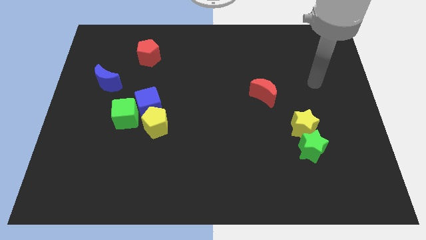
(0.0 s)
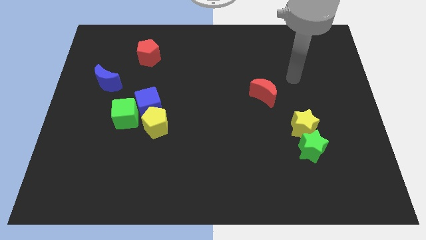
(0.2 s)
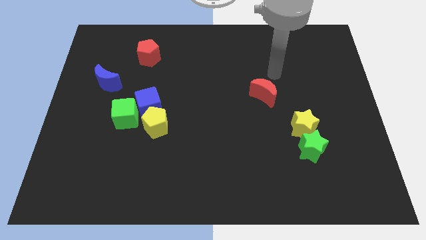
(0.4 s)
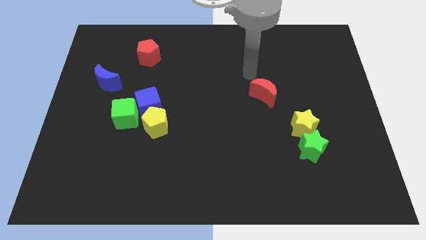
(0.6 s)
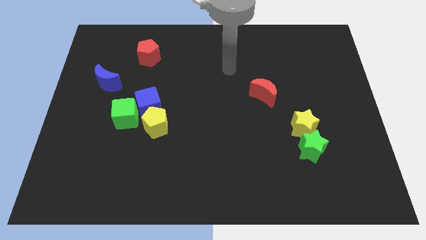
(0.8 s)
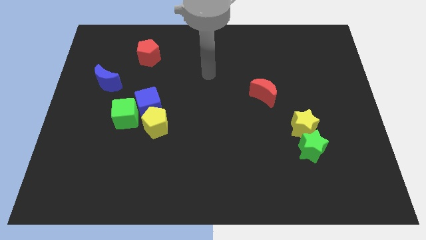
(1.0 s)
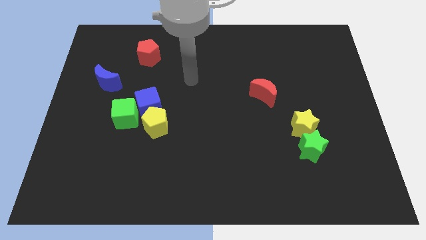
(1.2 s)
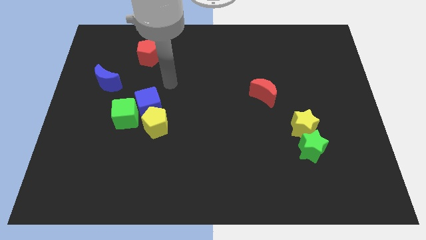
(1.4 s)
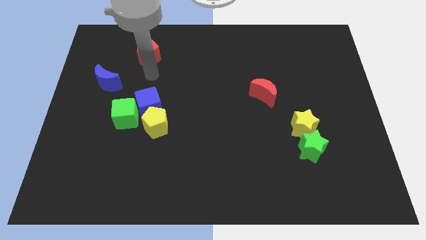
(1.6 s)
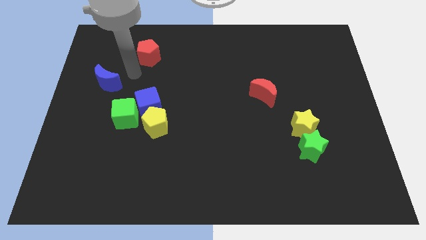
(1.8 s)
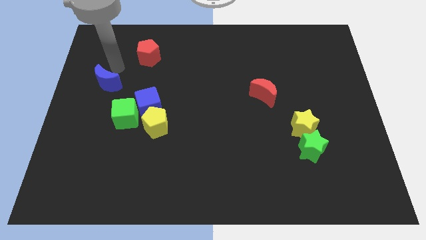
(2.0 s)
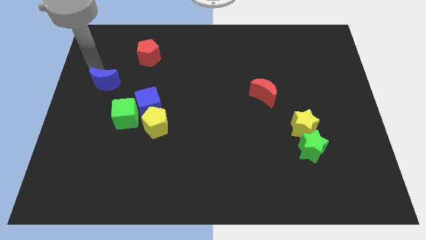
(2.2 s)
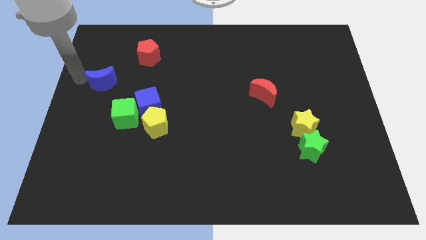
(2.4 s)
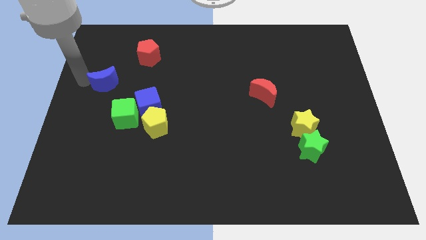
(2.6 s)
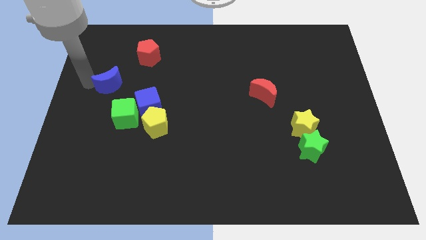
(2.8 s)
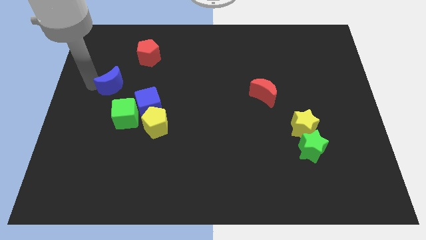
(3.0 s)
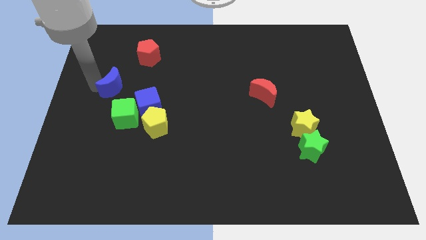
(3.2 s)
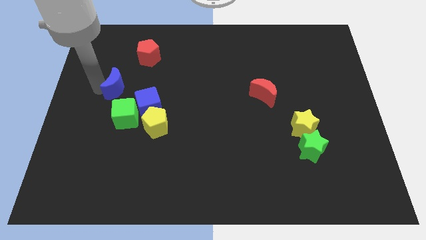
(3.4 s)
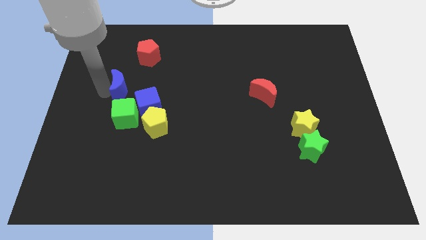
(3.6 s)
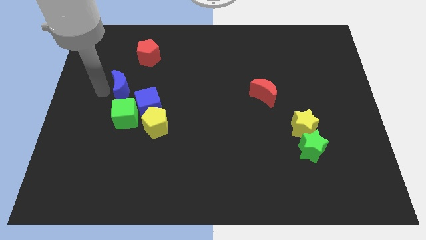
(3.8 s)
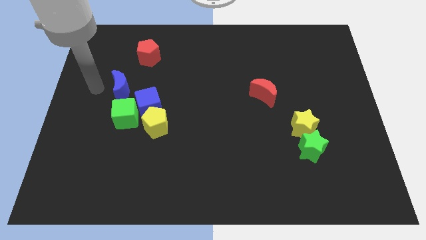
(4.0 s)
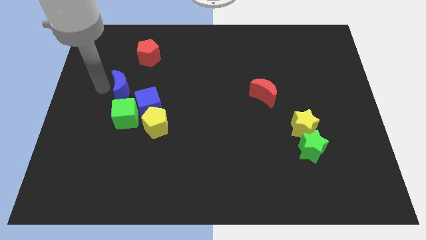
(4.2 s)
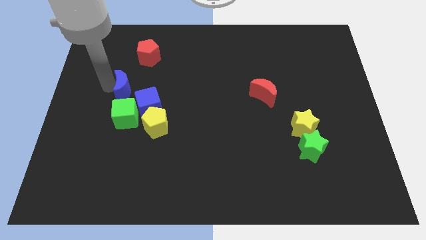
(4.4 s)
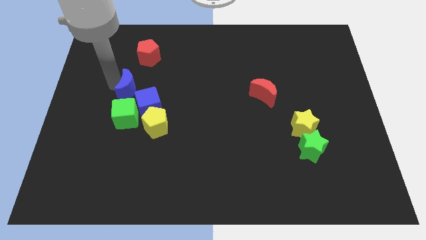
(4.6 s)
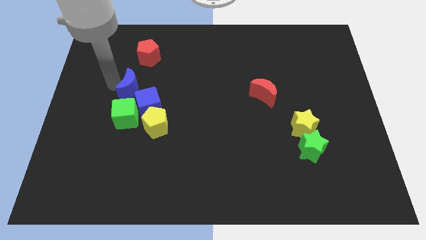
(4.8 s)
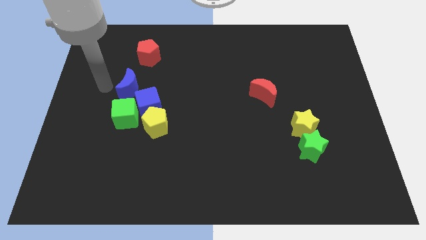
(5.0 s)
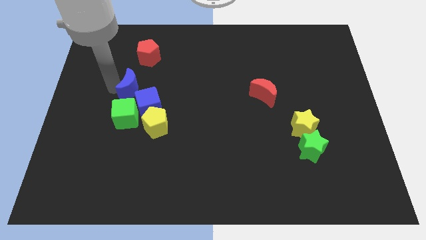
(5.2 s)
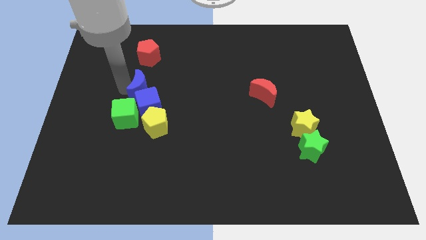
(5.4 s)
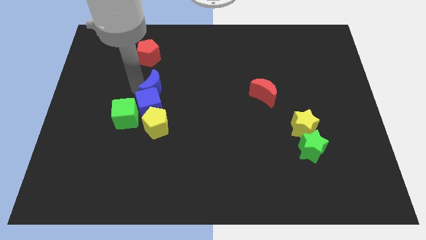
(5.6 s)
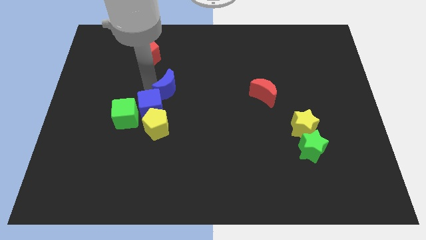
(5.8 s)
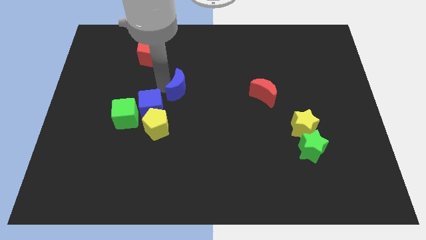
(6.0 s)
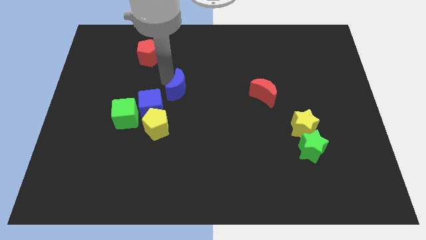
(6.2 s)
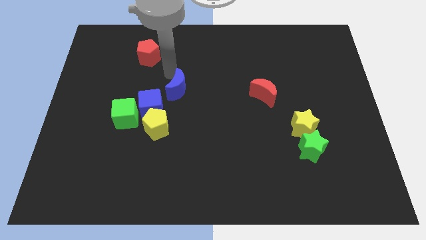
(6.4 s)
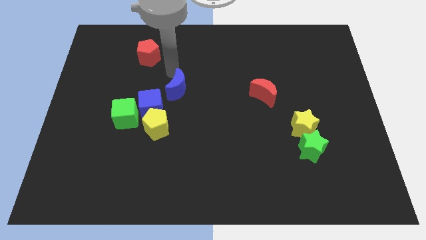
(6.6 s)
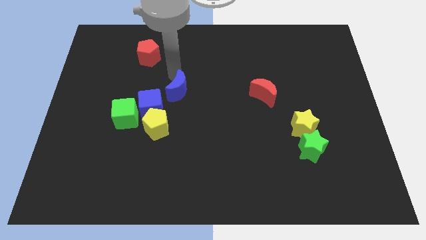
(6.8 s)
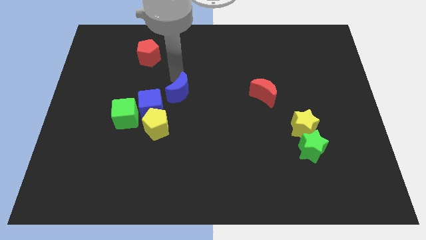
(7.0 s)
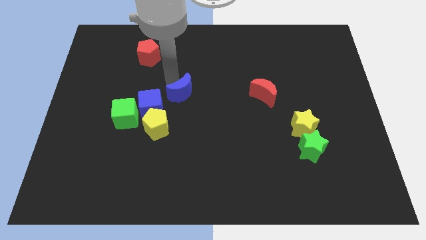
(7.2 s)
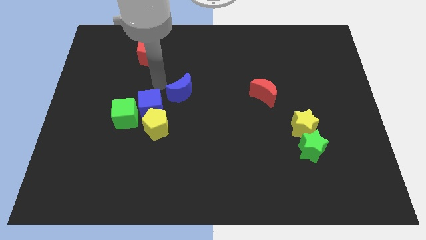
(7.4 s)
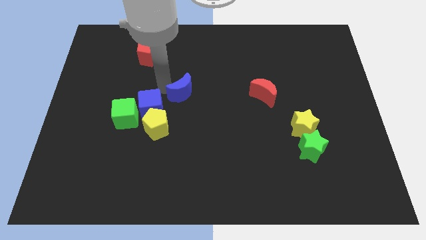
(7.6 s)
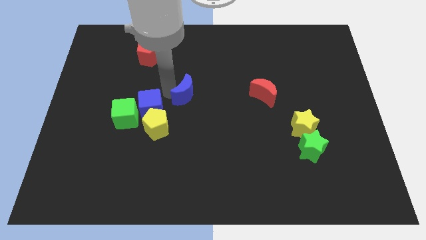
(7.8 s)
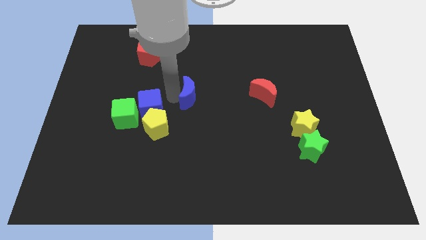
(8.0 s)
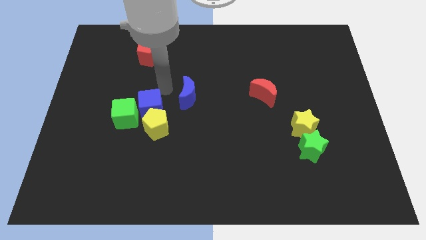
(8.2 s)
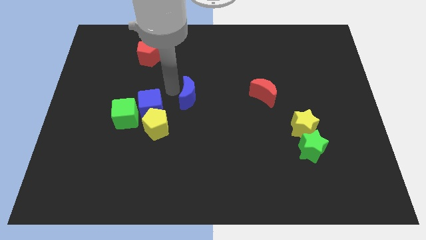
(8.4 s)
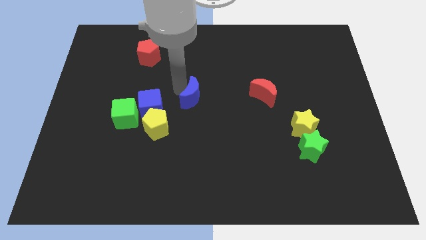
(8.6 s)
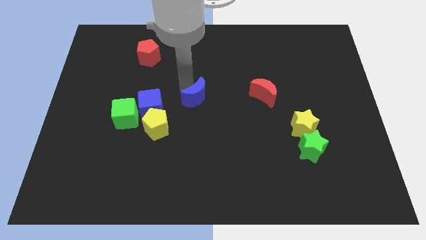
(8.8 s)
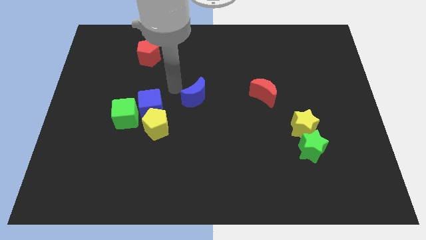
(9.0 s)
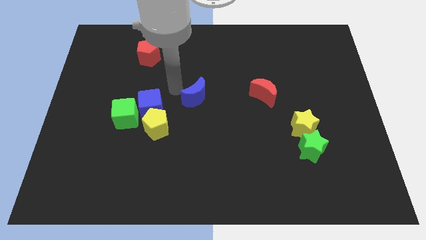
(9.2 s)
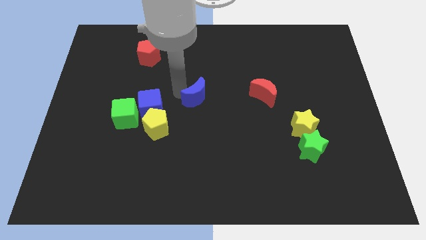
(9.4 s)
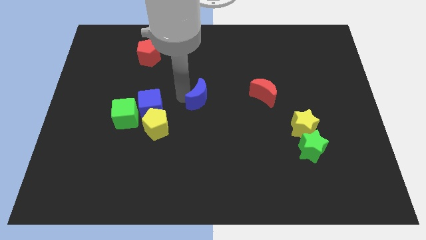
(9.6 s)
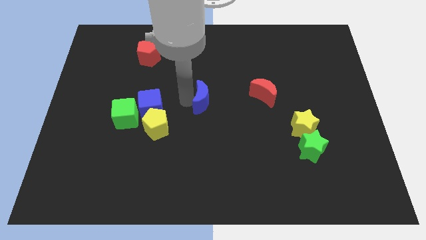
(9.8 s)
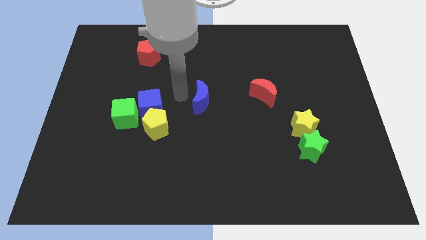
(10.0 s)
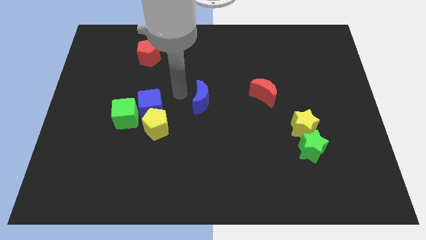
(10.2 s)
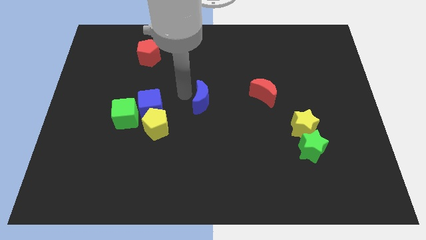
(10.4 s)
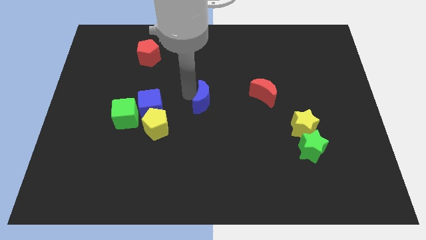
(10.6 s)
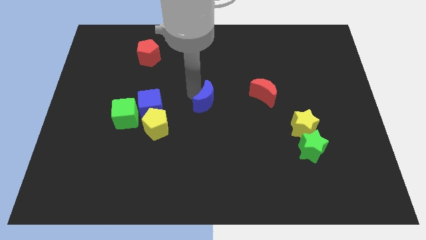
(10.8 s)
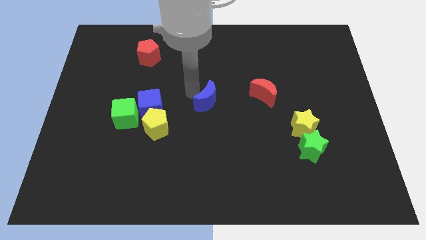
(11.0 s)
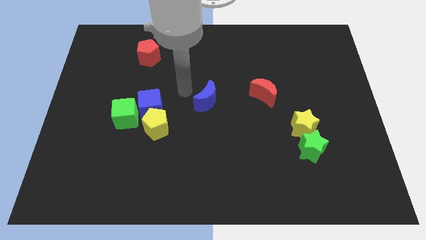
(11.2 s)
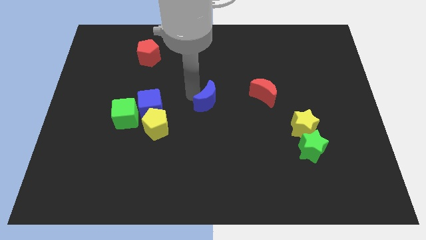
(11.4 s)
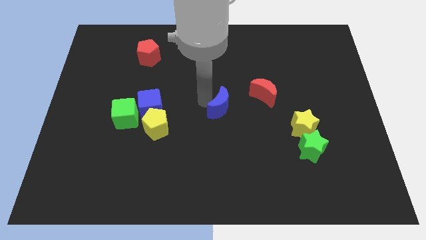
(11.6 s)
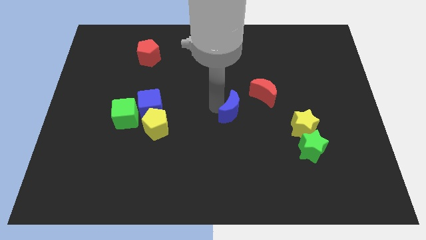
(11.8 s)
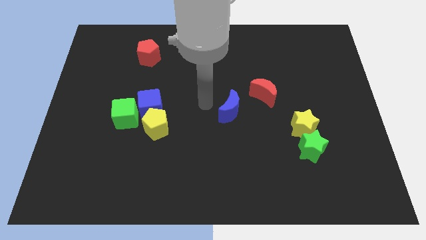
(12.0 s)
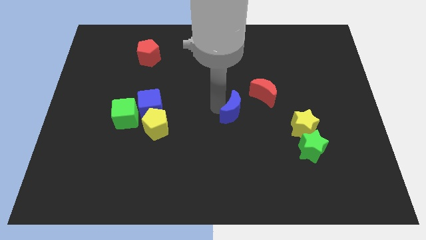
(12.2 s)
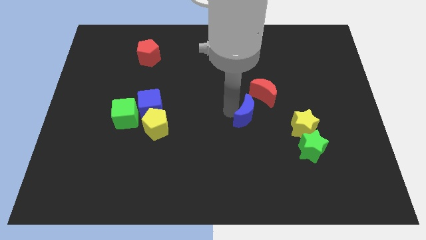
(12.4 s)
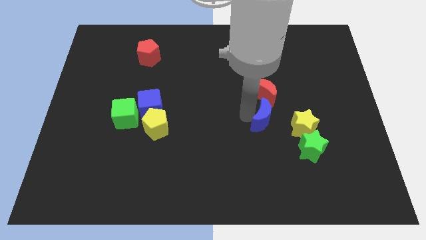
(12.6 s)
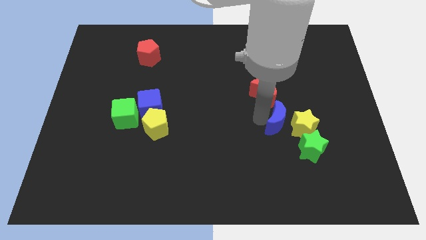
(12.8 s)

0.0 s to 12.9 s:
move the blue moon towards the yellow star

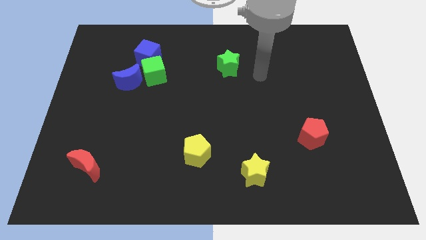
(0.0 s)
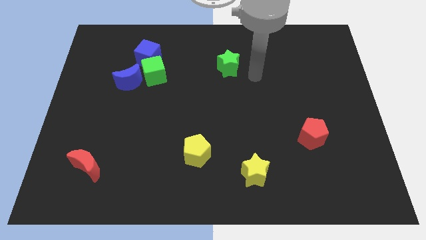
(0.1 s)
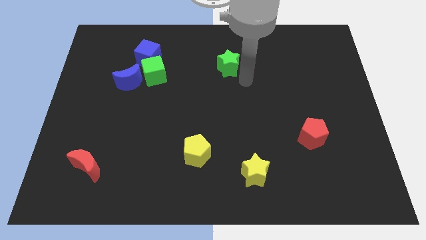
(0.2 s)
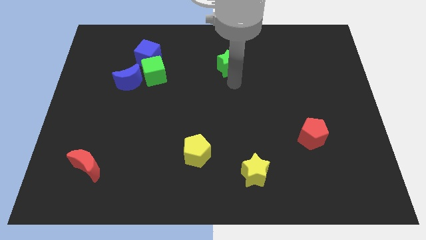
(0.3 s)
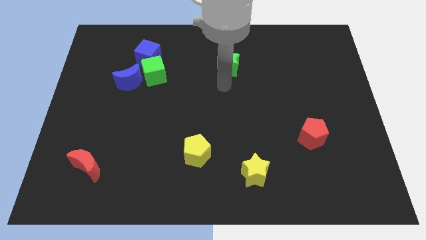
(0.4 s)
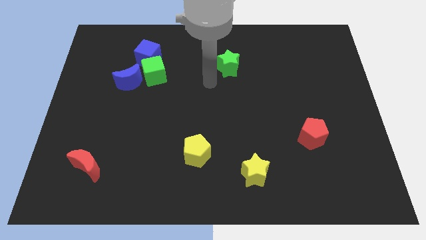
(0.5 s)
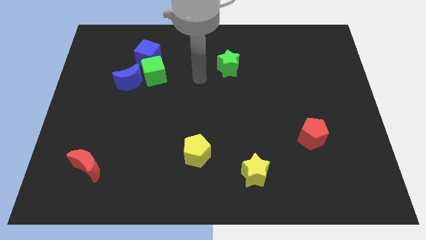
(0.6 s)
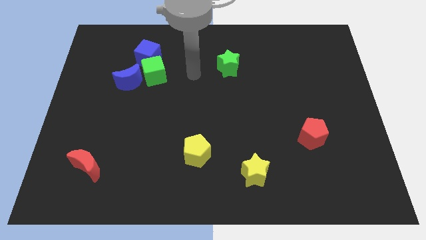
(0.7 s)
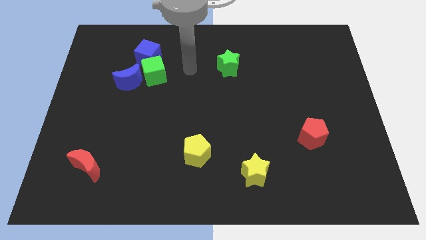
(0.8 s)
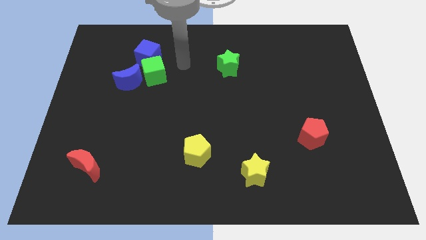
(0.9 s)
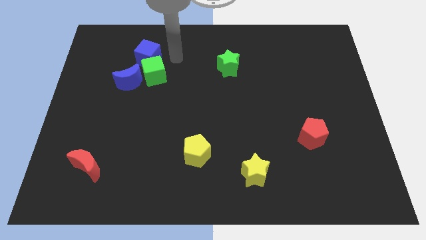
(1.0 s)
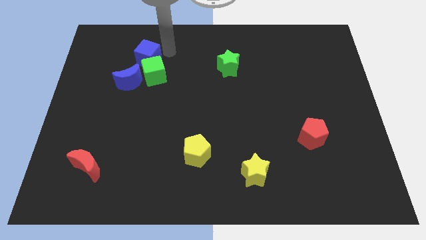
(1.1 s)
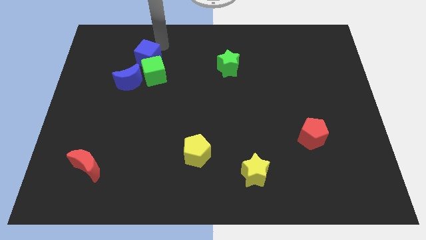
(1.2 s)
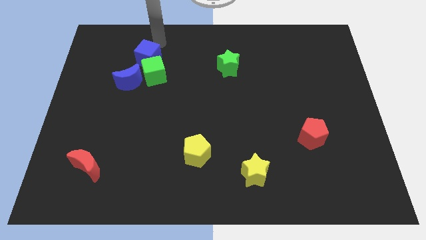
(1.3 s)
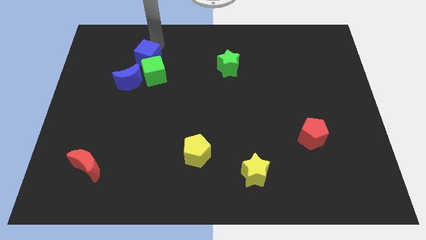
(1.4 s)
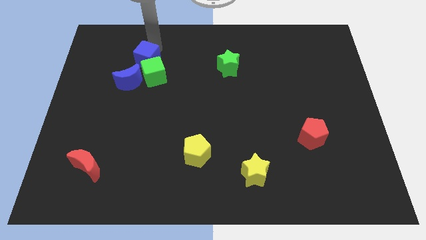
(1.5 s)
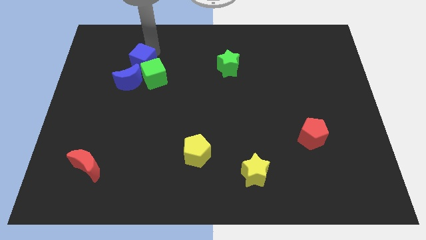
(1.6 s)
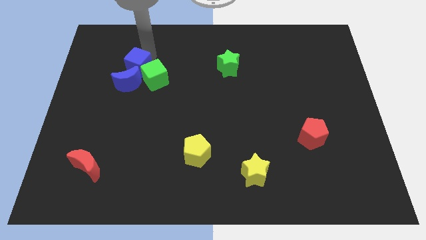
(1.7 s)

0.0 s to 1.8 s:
push the blue cube to the blue moon
